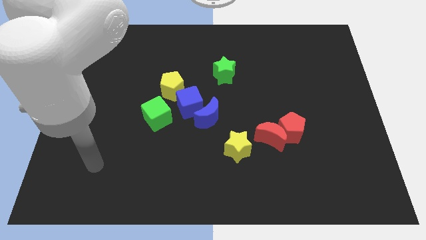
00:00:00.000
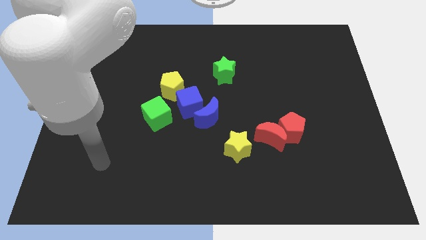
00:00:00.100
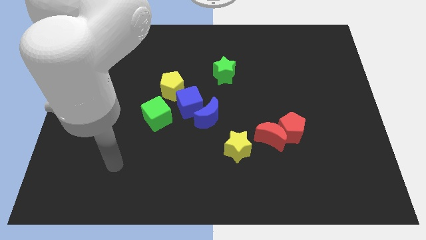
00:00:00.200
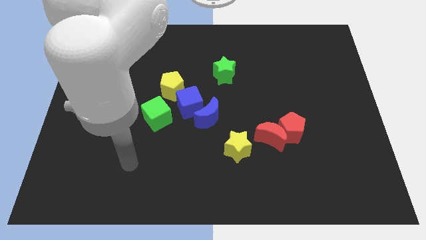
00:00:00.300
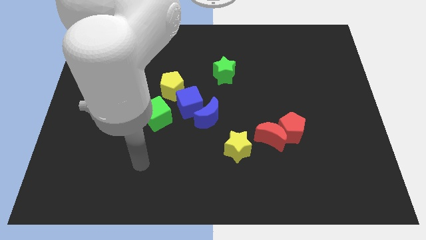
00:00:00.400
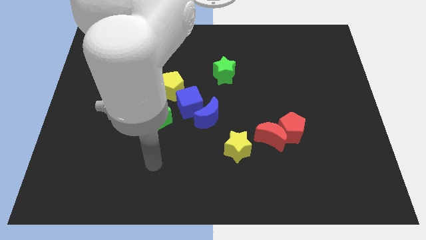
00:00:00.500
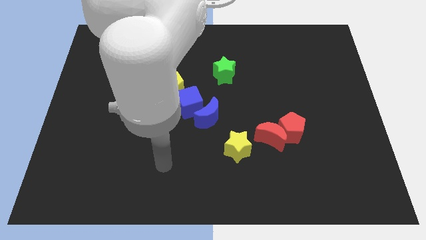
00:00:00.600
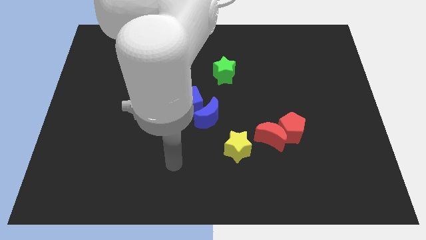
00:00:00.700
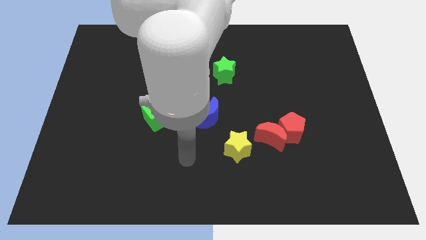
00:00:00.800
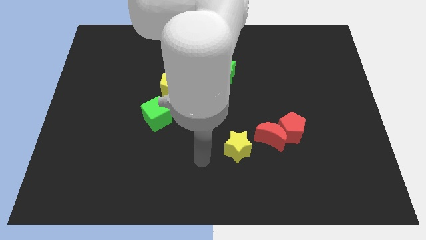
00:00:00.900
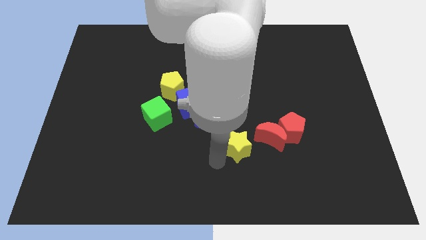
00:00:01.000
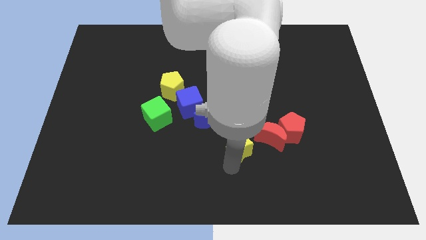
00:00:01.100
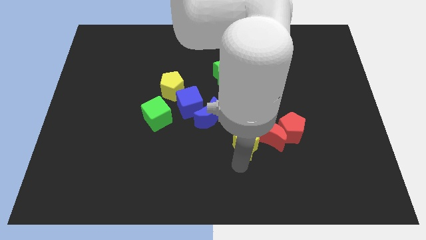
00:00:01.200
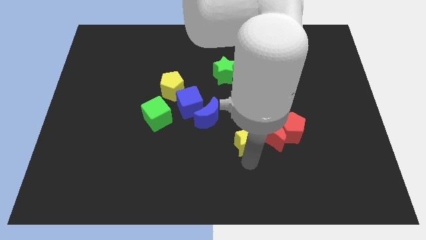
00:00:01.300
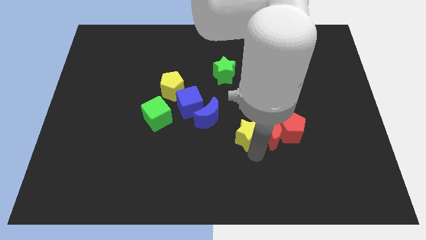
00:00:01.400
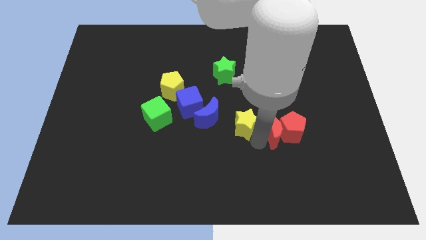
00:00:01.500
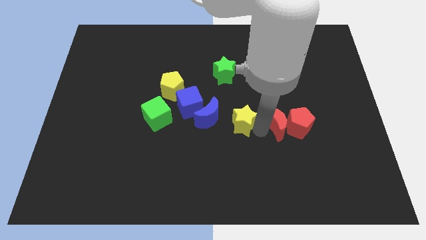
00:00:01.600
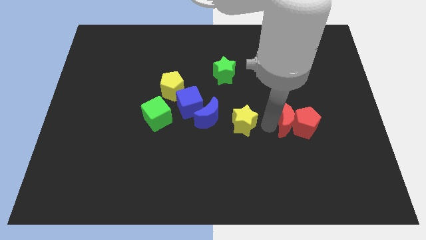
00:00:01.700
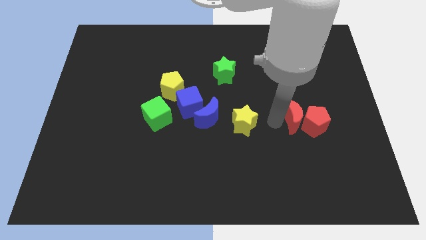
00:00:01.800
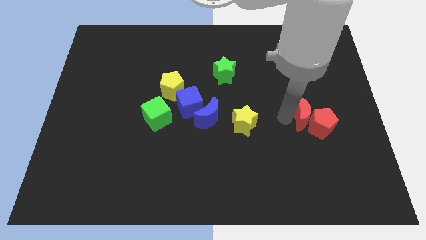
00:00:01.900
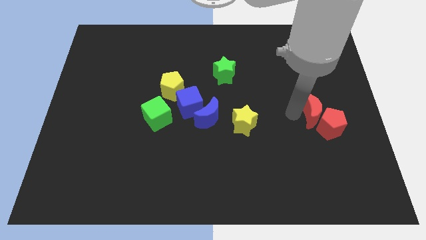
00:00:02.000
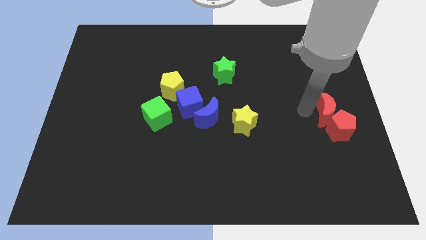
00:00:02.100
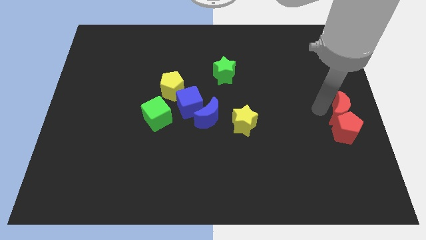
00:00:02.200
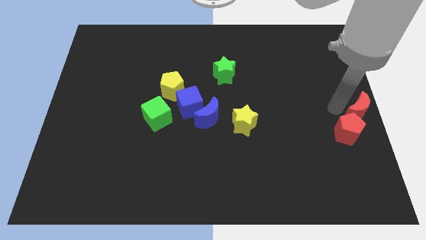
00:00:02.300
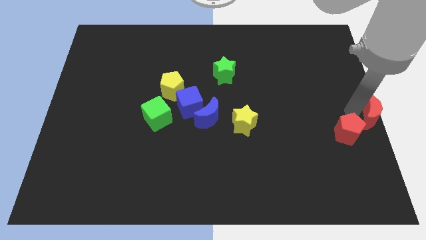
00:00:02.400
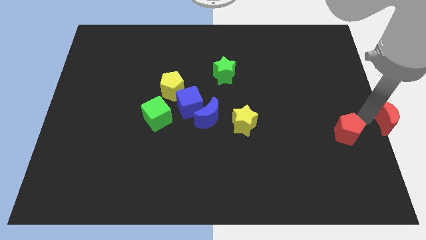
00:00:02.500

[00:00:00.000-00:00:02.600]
pull the red pentagon apart from the red moon

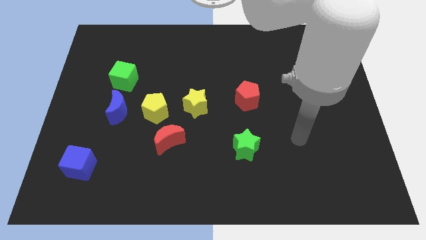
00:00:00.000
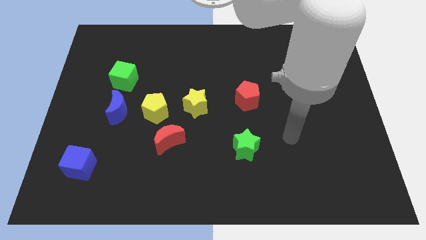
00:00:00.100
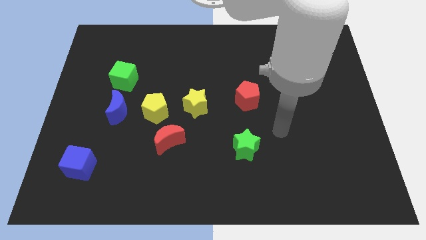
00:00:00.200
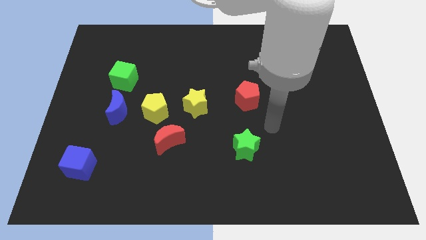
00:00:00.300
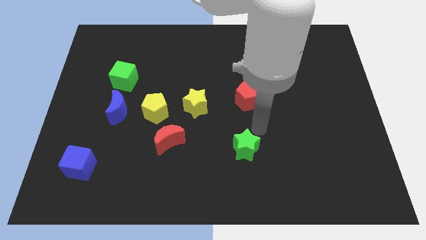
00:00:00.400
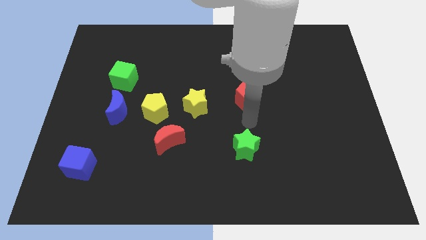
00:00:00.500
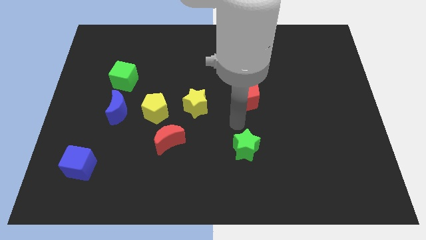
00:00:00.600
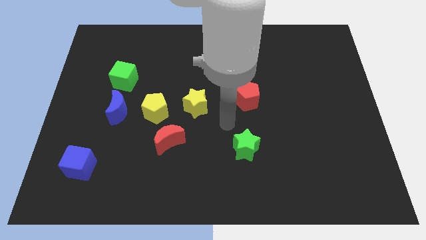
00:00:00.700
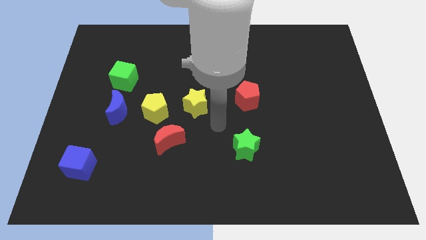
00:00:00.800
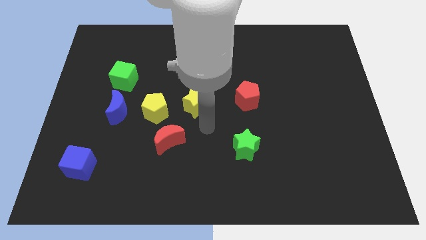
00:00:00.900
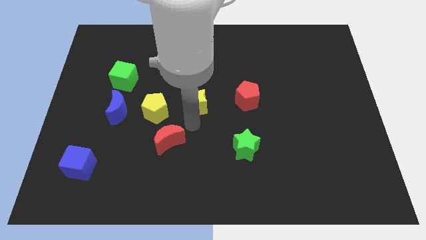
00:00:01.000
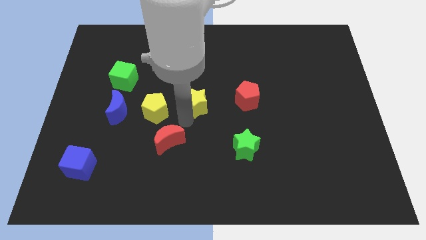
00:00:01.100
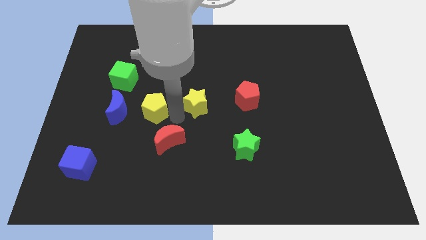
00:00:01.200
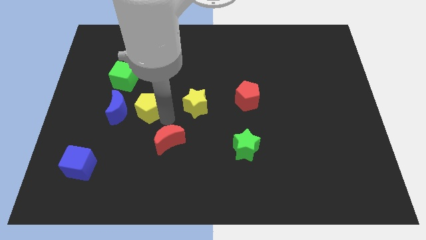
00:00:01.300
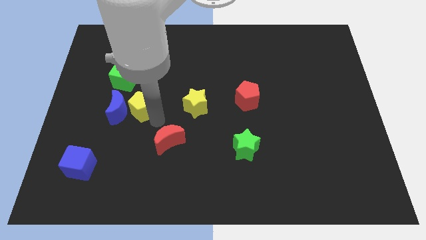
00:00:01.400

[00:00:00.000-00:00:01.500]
pull the red moon apart from the yellow pentagon

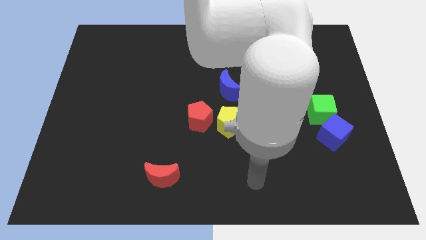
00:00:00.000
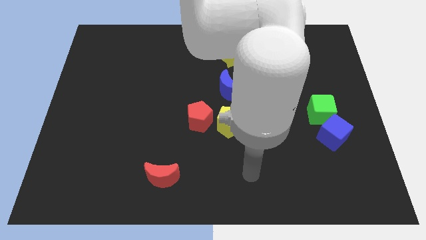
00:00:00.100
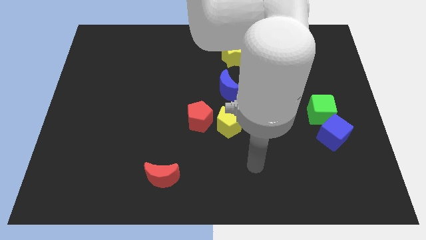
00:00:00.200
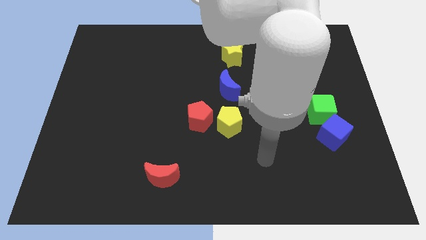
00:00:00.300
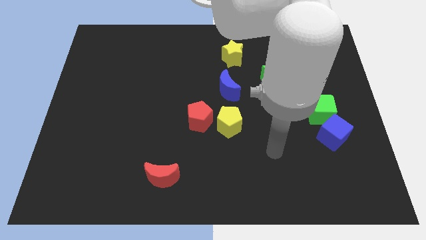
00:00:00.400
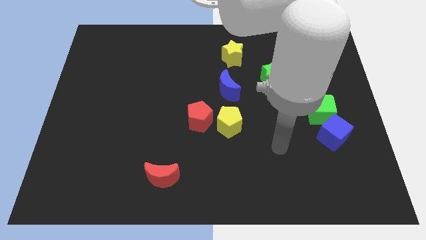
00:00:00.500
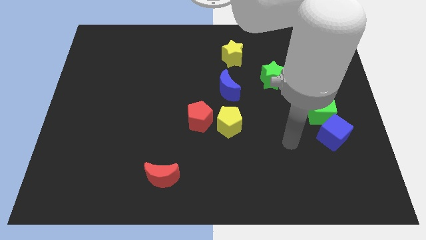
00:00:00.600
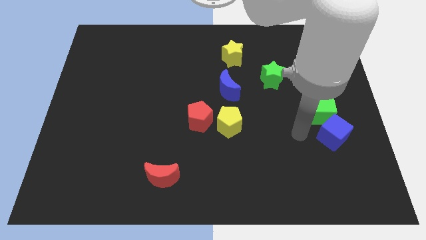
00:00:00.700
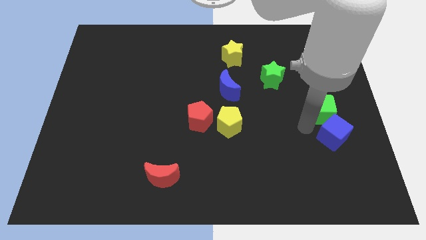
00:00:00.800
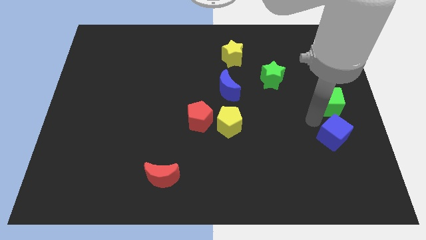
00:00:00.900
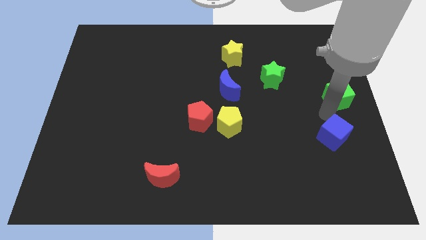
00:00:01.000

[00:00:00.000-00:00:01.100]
pull the blue cube apart from the green cube

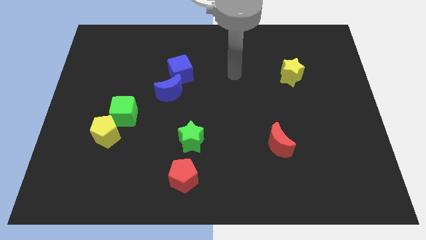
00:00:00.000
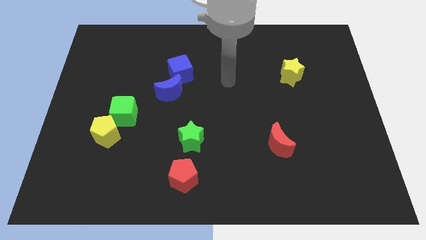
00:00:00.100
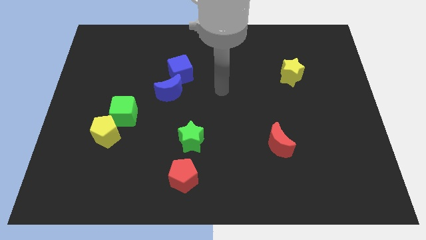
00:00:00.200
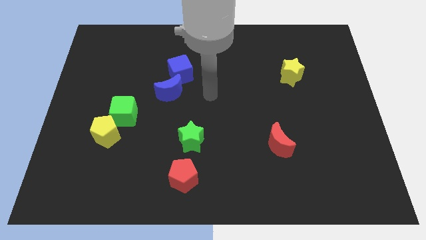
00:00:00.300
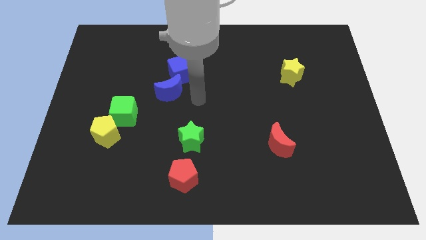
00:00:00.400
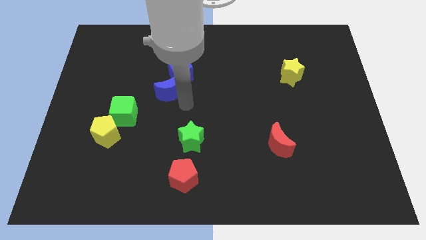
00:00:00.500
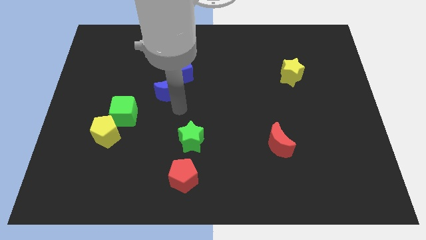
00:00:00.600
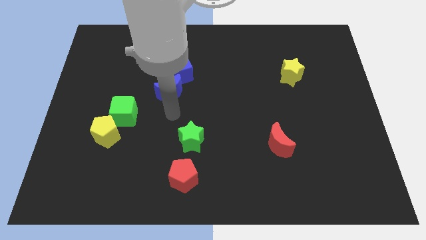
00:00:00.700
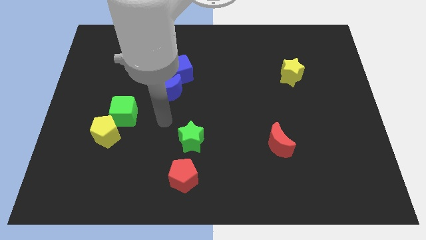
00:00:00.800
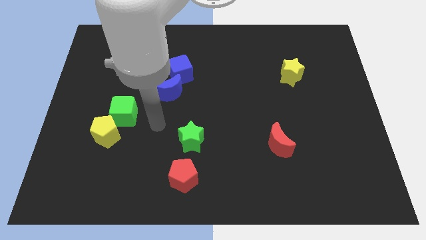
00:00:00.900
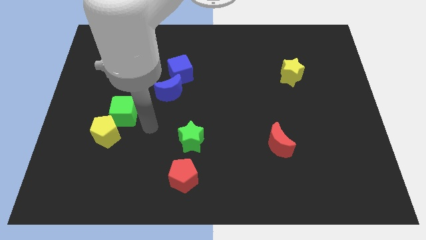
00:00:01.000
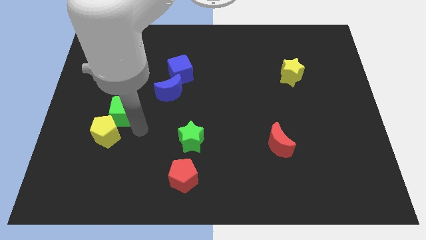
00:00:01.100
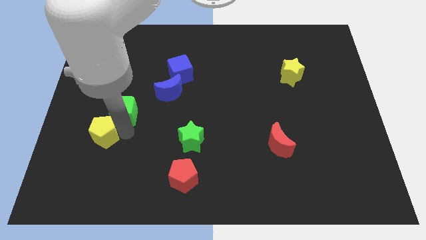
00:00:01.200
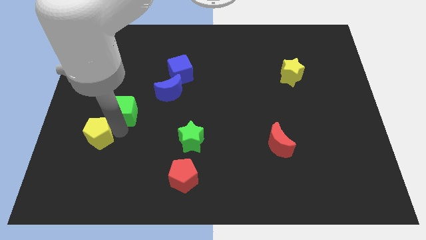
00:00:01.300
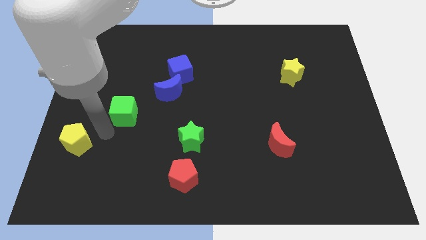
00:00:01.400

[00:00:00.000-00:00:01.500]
pull the green cube apart from the yellow pentagon

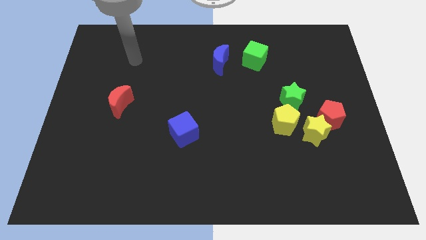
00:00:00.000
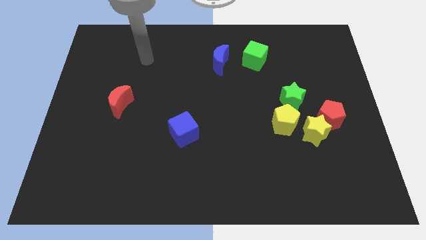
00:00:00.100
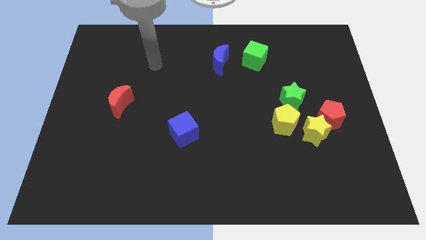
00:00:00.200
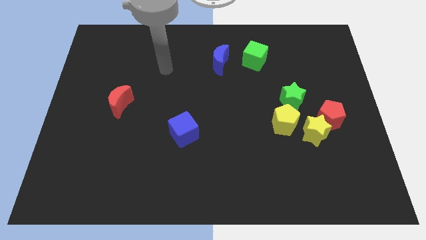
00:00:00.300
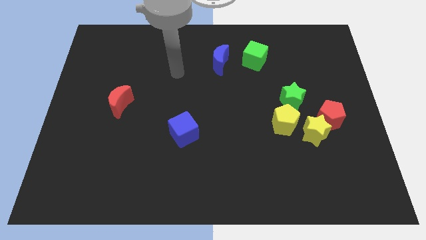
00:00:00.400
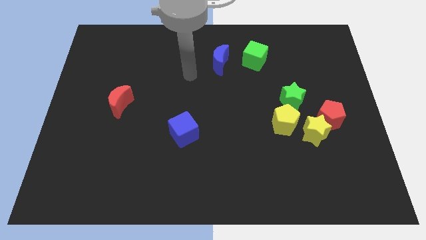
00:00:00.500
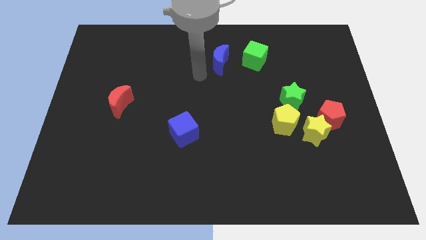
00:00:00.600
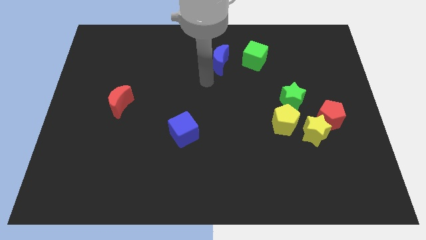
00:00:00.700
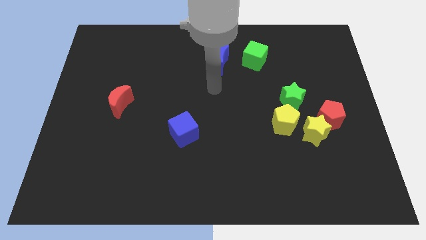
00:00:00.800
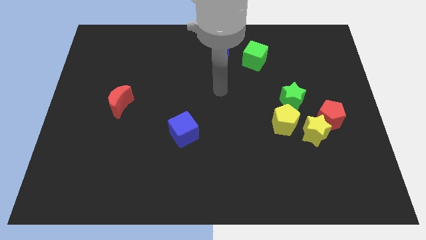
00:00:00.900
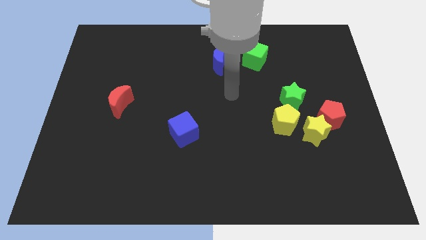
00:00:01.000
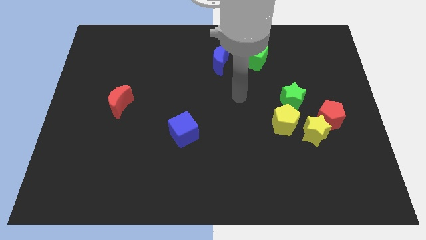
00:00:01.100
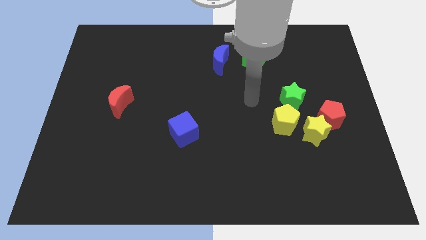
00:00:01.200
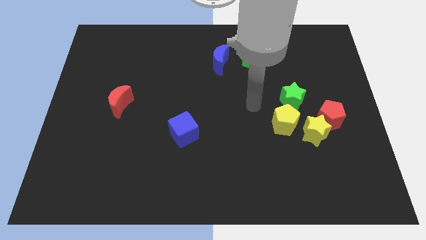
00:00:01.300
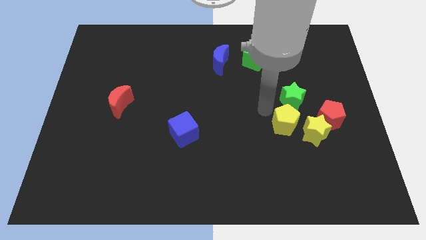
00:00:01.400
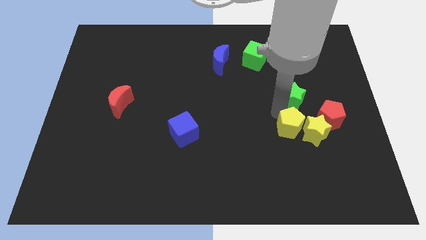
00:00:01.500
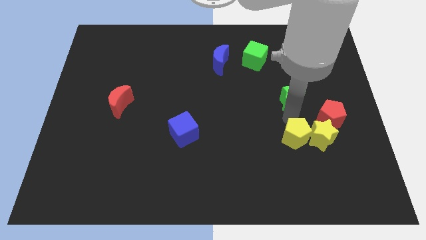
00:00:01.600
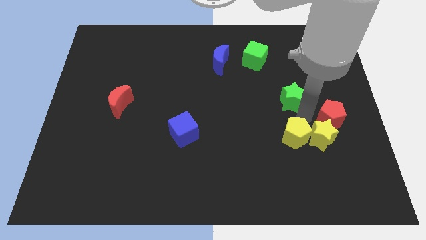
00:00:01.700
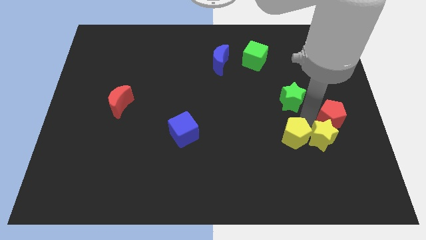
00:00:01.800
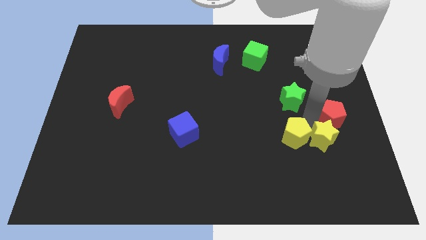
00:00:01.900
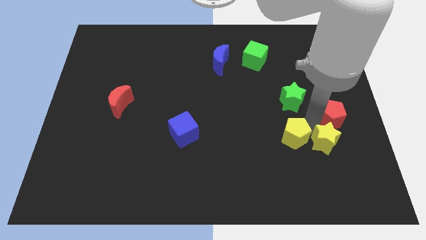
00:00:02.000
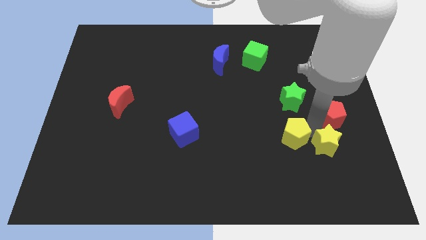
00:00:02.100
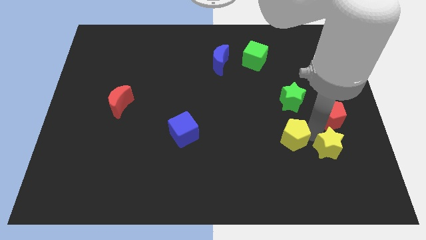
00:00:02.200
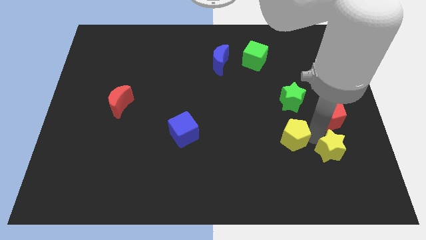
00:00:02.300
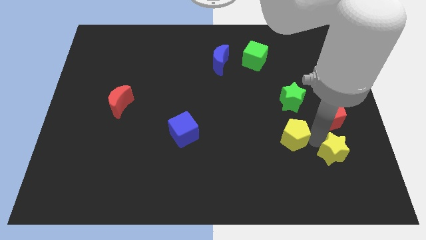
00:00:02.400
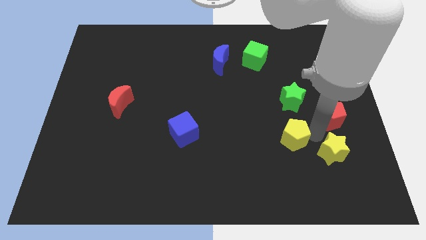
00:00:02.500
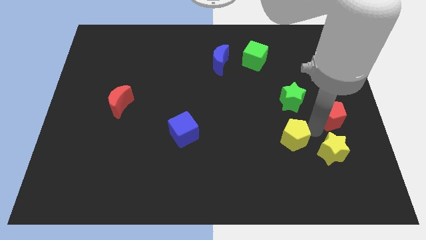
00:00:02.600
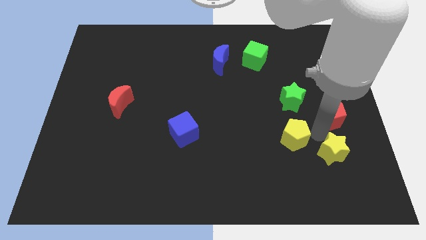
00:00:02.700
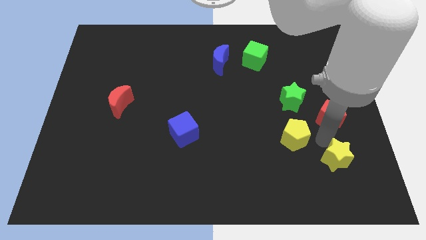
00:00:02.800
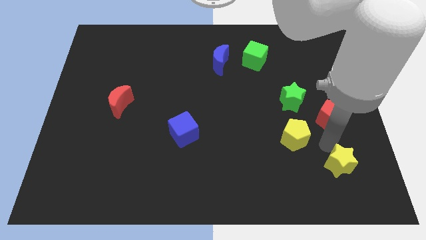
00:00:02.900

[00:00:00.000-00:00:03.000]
separate the yellow star from the red pentagon and yellow pentagon
